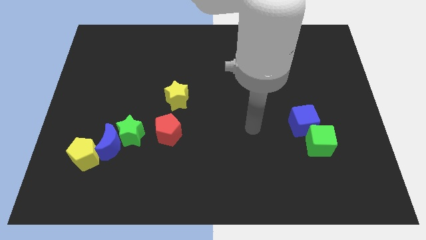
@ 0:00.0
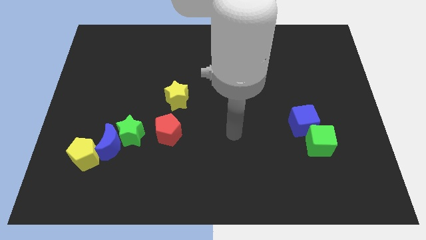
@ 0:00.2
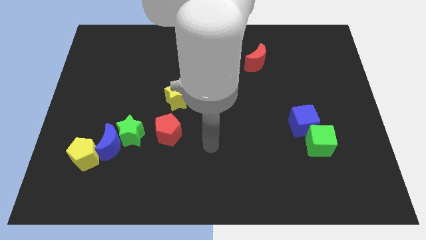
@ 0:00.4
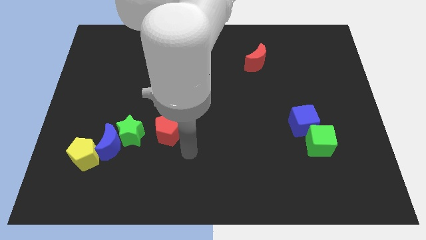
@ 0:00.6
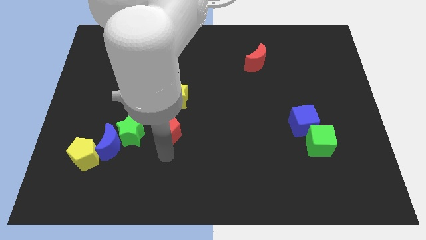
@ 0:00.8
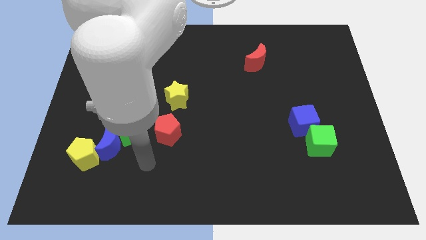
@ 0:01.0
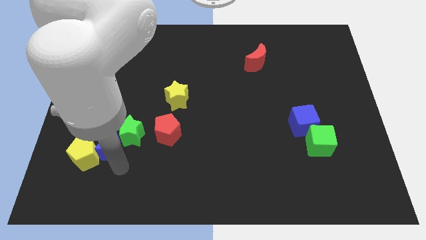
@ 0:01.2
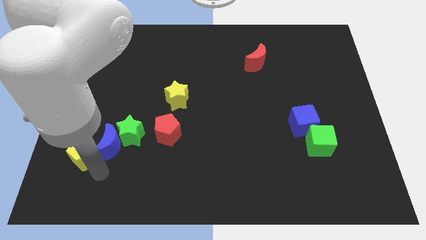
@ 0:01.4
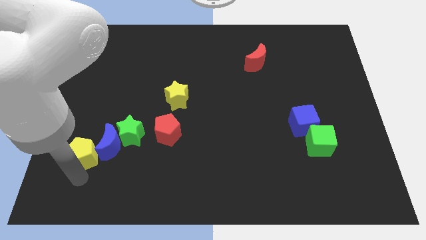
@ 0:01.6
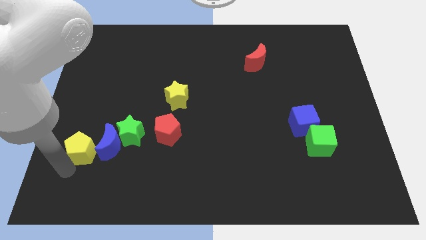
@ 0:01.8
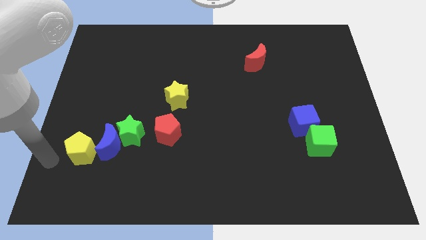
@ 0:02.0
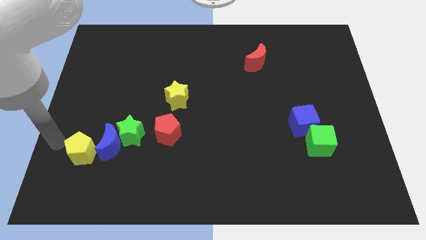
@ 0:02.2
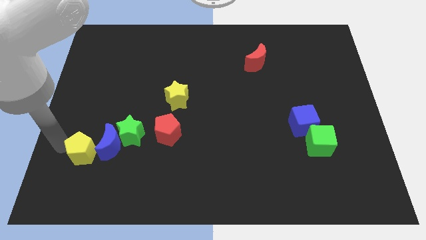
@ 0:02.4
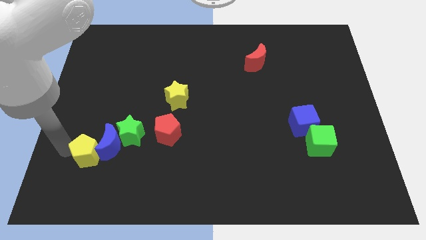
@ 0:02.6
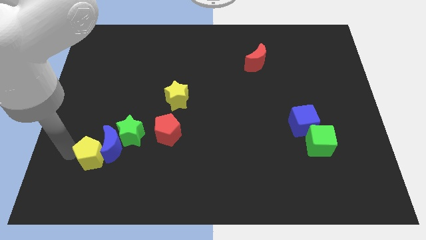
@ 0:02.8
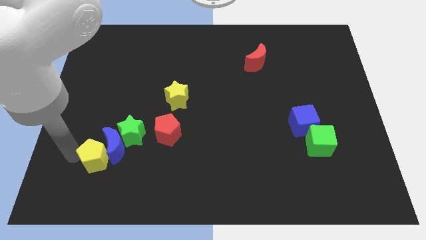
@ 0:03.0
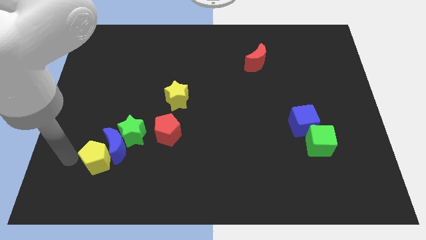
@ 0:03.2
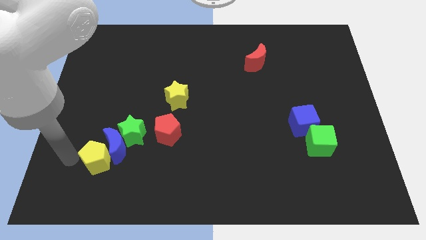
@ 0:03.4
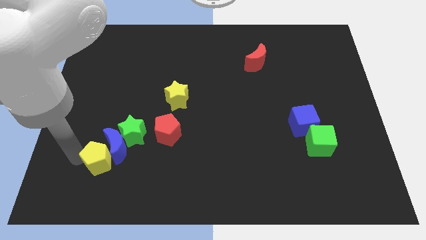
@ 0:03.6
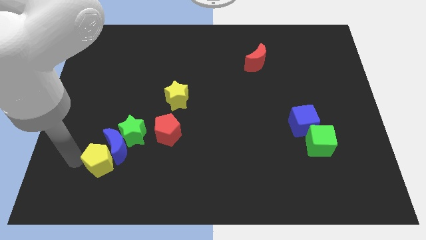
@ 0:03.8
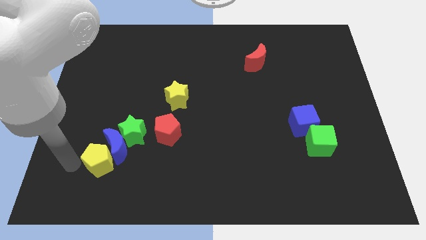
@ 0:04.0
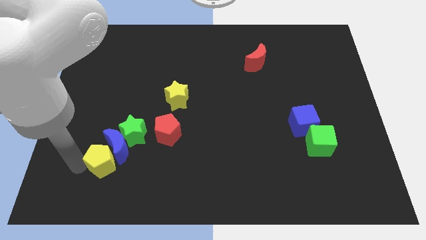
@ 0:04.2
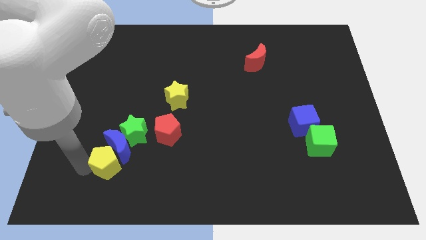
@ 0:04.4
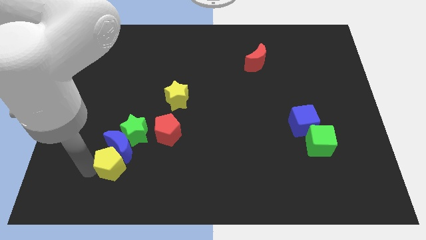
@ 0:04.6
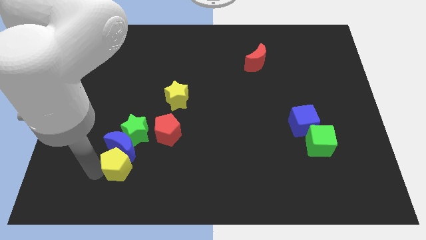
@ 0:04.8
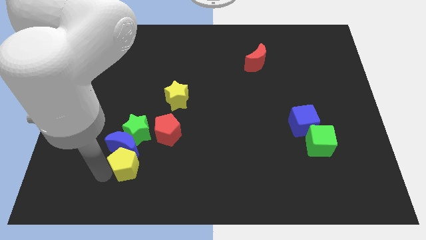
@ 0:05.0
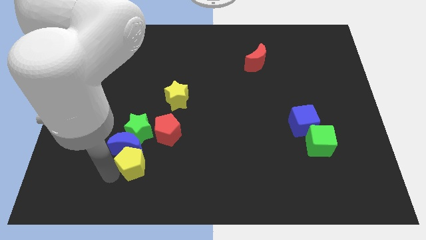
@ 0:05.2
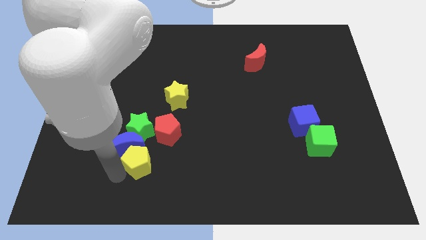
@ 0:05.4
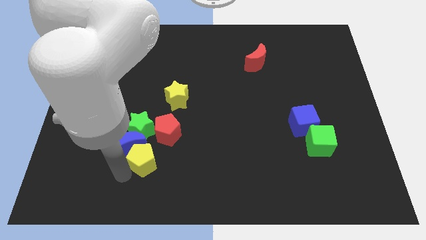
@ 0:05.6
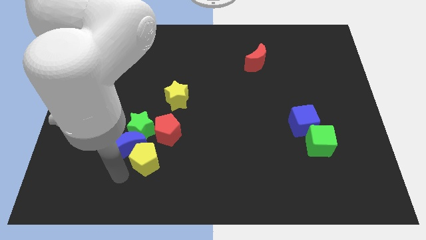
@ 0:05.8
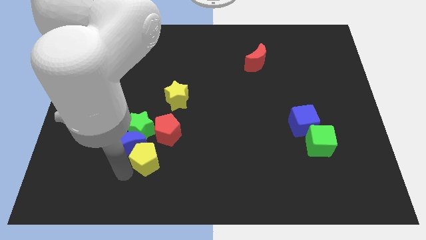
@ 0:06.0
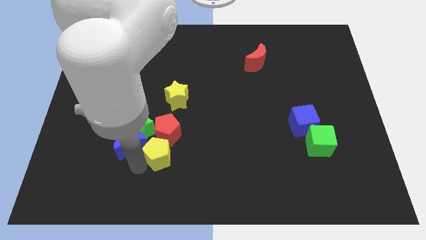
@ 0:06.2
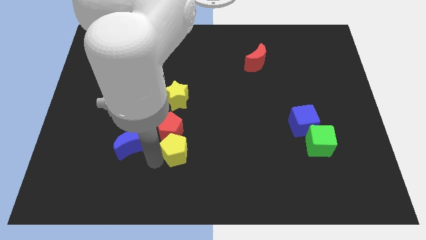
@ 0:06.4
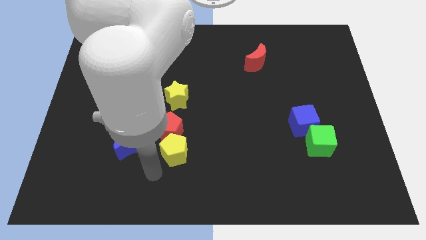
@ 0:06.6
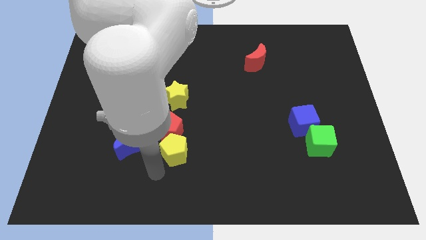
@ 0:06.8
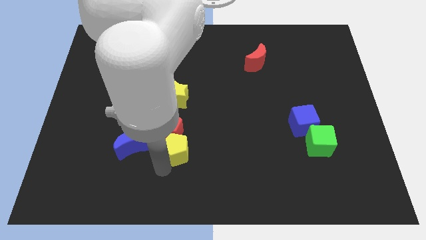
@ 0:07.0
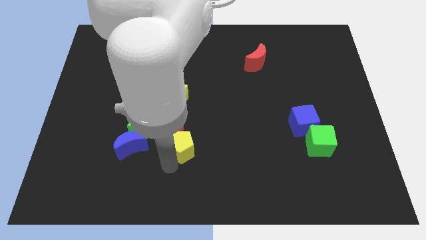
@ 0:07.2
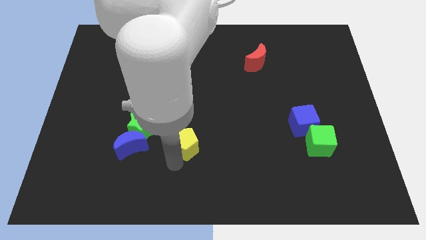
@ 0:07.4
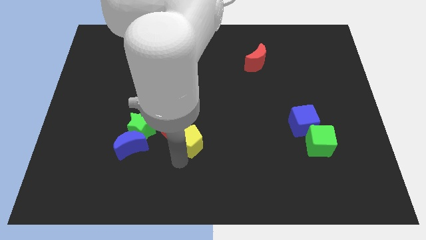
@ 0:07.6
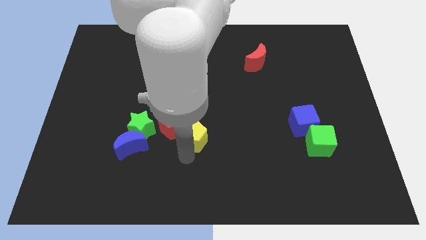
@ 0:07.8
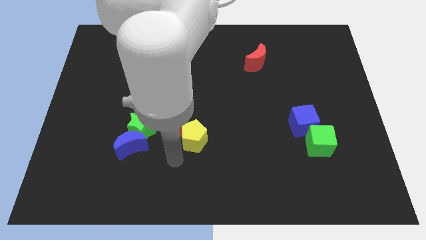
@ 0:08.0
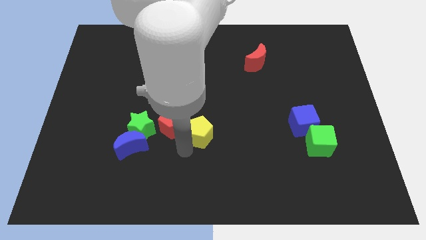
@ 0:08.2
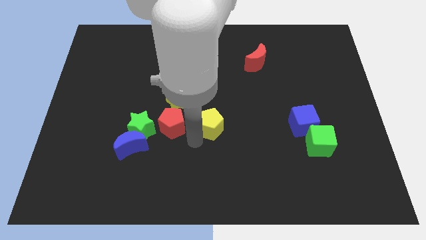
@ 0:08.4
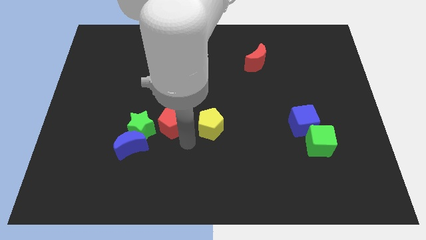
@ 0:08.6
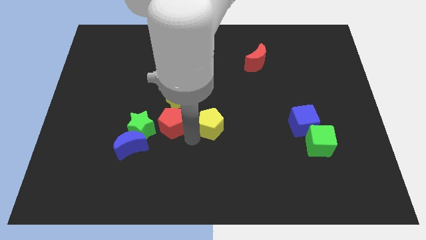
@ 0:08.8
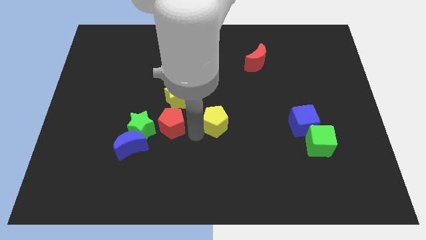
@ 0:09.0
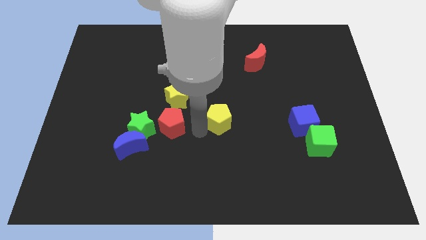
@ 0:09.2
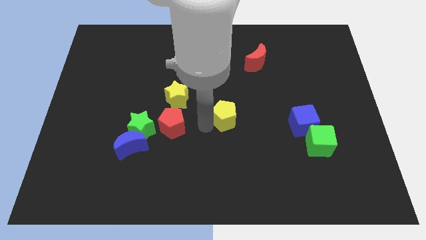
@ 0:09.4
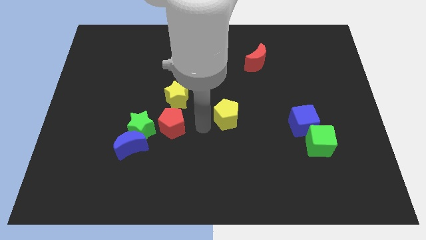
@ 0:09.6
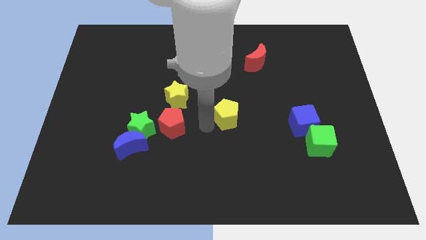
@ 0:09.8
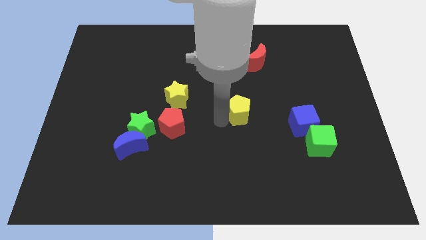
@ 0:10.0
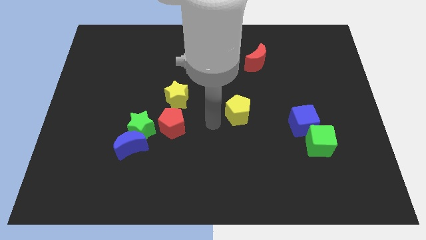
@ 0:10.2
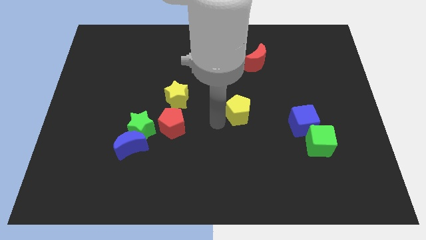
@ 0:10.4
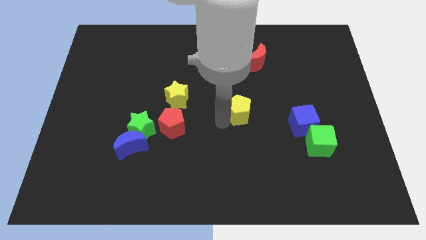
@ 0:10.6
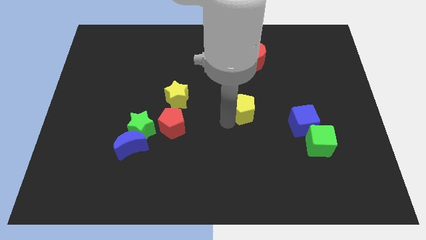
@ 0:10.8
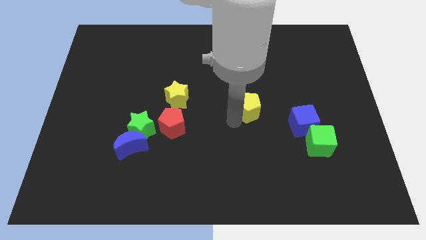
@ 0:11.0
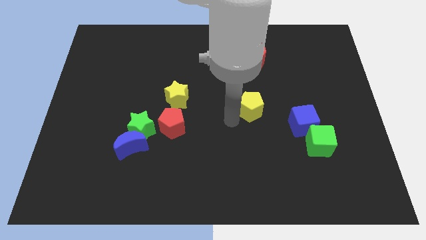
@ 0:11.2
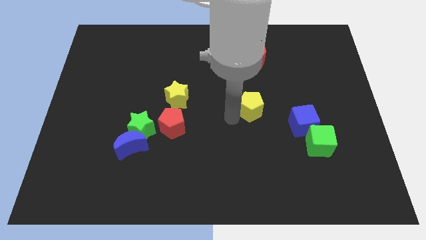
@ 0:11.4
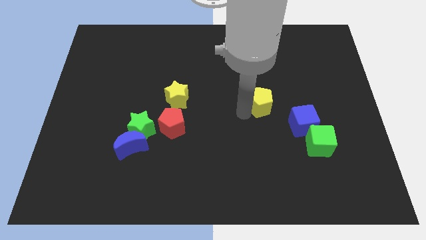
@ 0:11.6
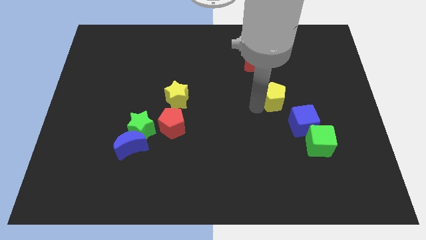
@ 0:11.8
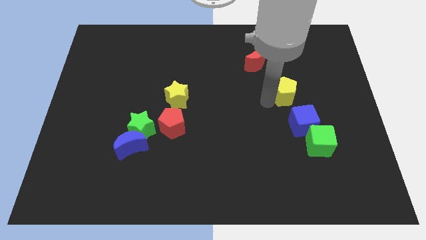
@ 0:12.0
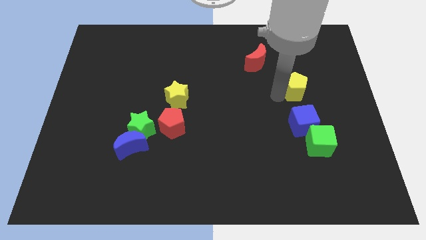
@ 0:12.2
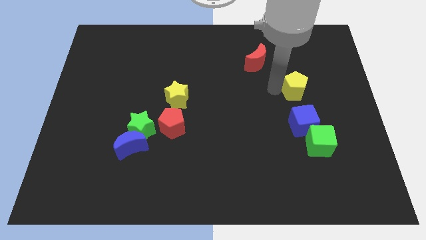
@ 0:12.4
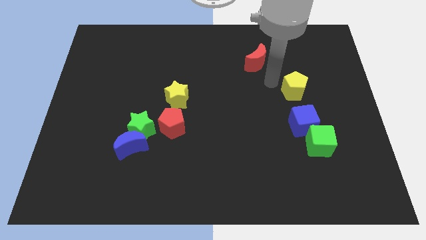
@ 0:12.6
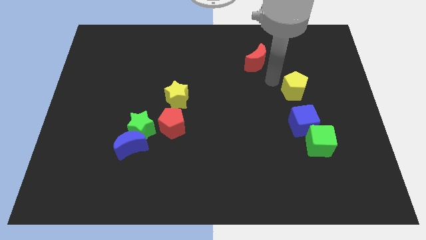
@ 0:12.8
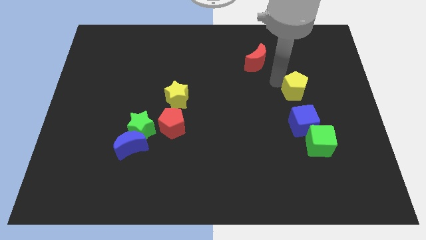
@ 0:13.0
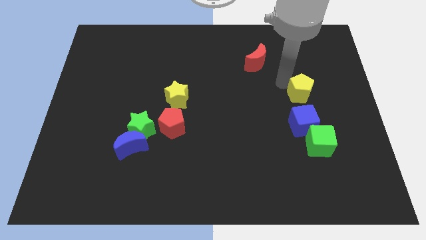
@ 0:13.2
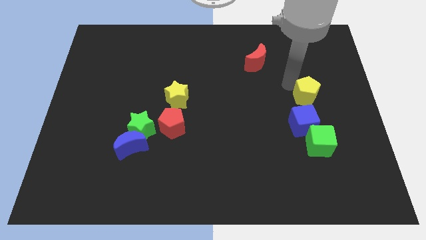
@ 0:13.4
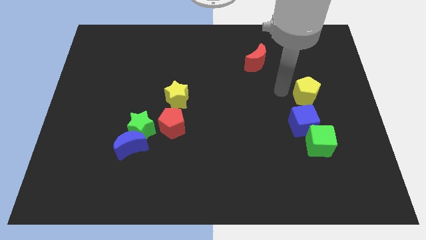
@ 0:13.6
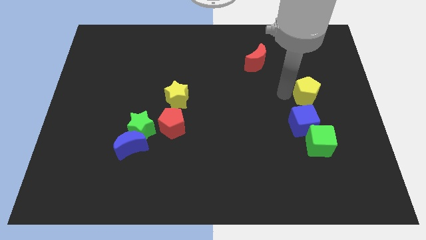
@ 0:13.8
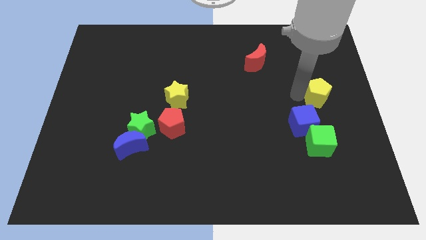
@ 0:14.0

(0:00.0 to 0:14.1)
push the yellow pentagon to the right side of the board
